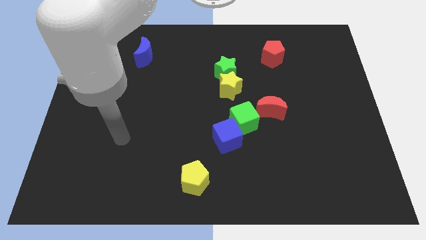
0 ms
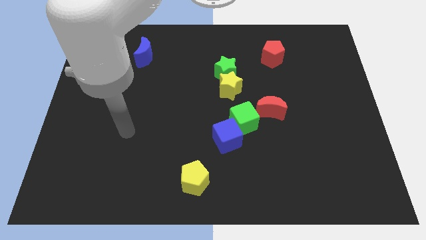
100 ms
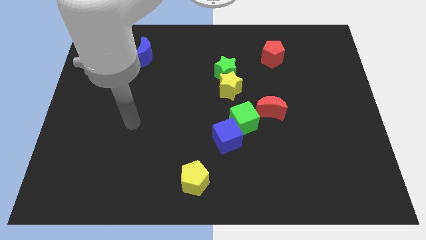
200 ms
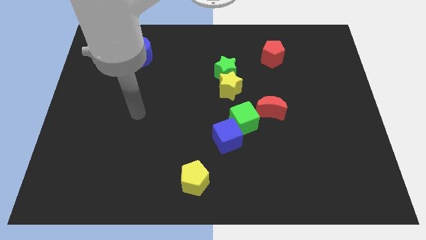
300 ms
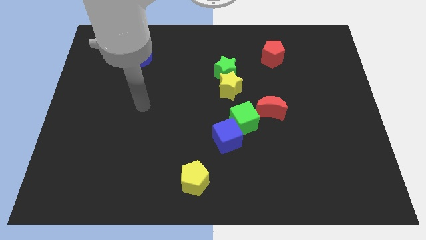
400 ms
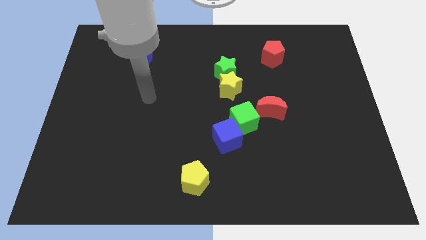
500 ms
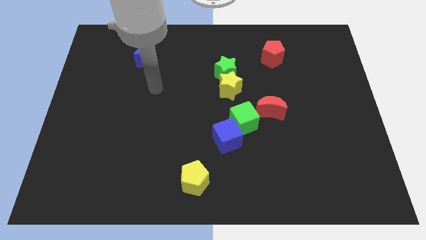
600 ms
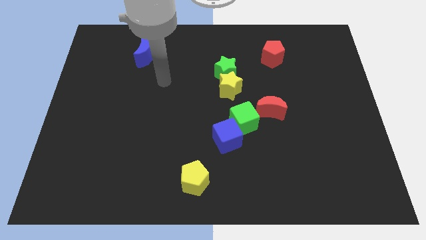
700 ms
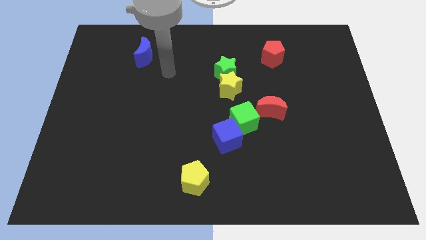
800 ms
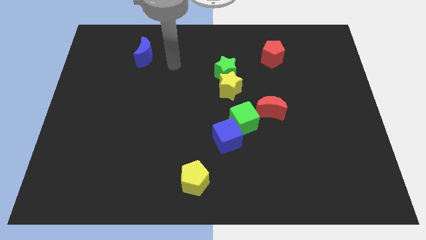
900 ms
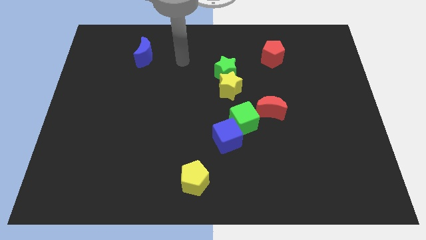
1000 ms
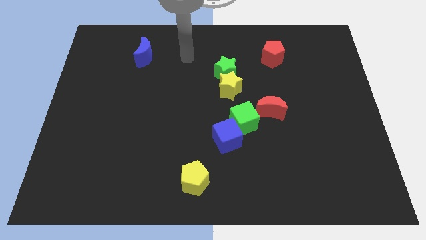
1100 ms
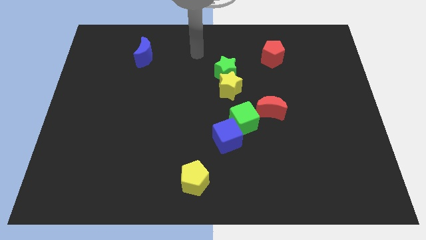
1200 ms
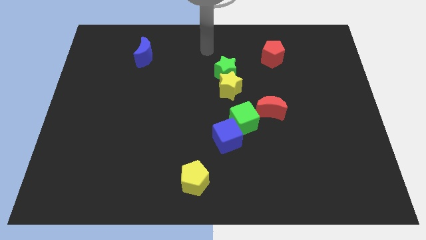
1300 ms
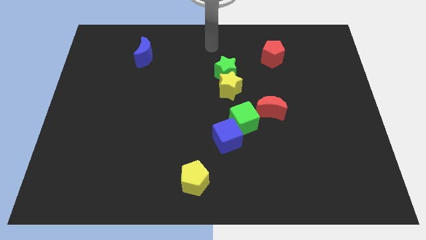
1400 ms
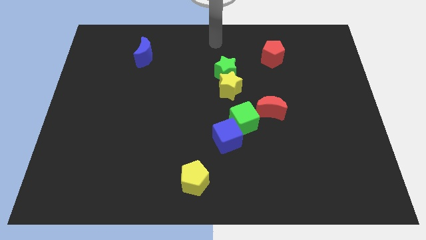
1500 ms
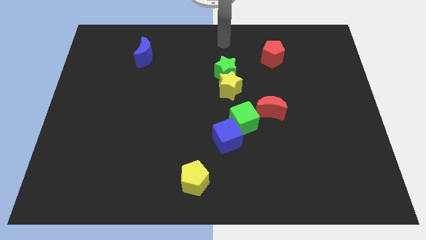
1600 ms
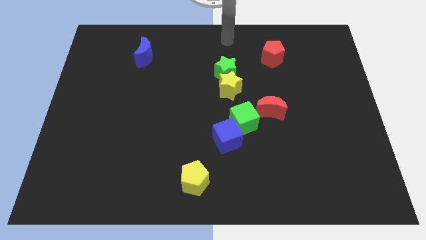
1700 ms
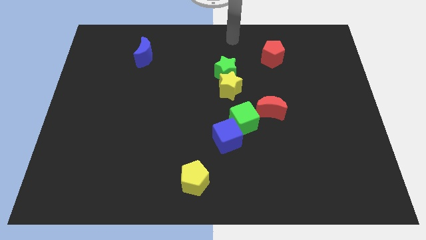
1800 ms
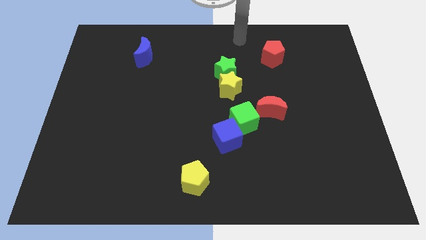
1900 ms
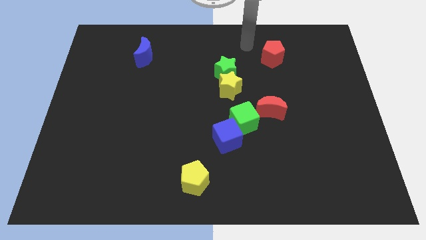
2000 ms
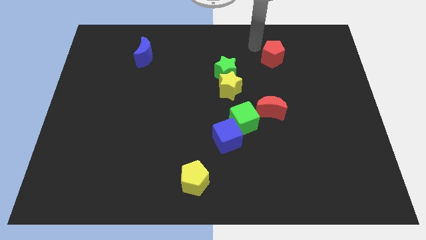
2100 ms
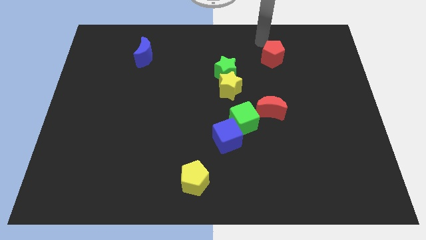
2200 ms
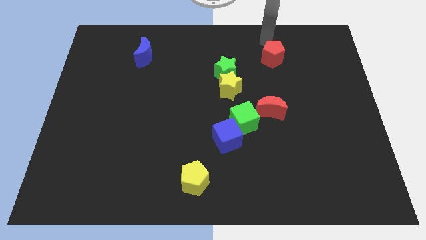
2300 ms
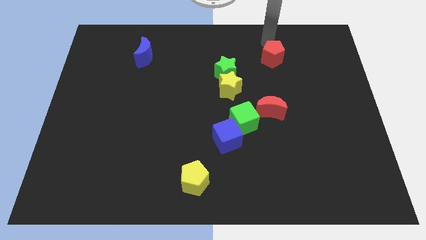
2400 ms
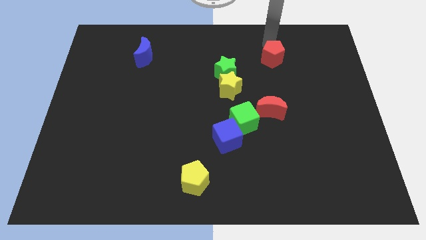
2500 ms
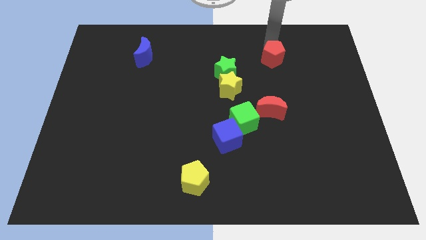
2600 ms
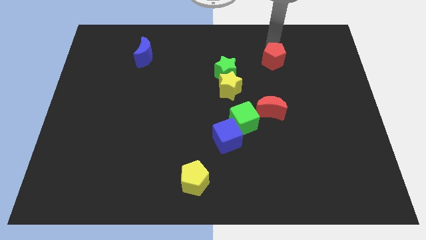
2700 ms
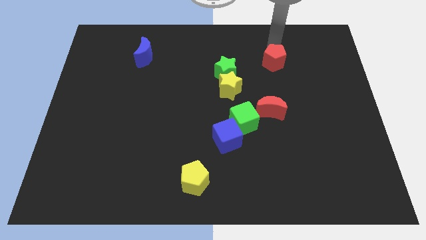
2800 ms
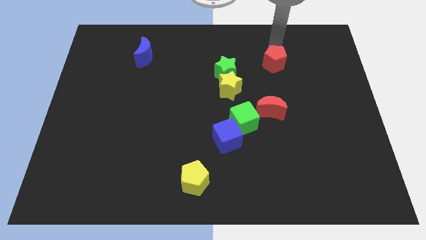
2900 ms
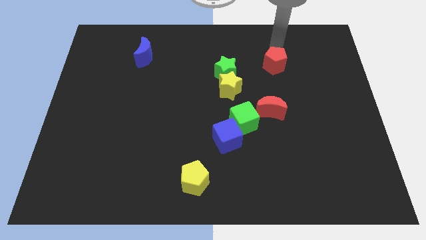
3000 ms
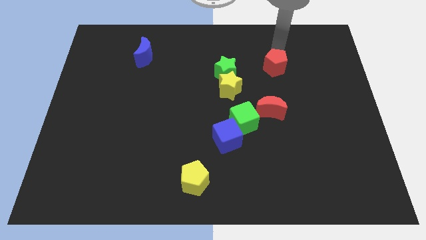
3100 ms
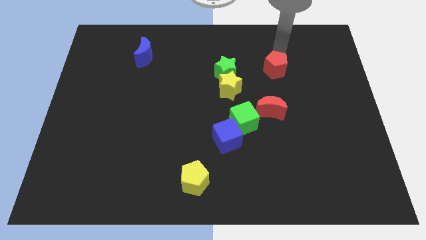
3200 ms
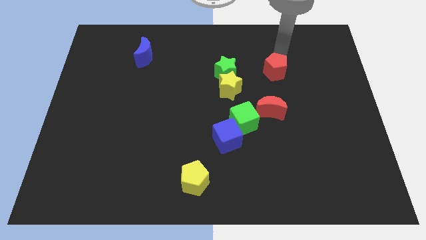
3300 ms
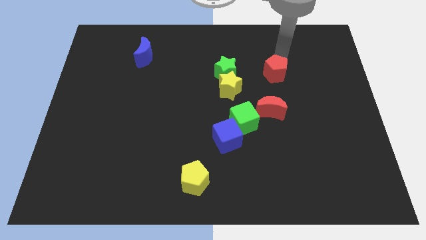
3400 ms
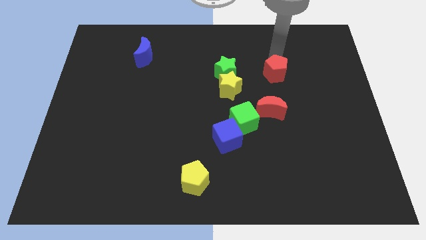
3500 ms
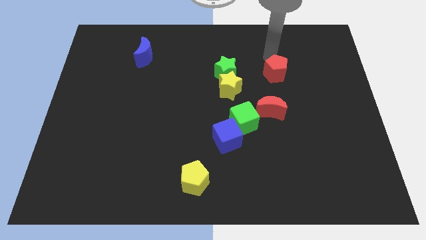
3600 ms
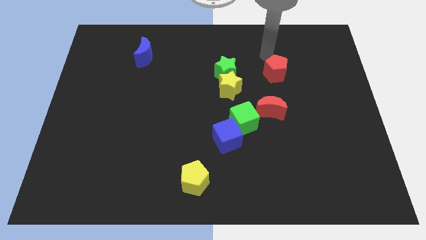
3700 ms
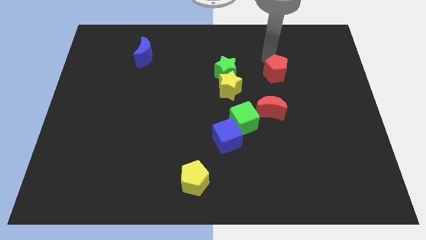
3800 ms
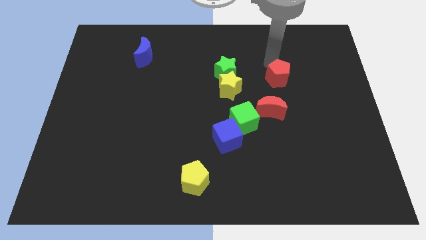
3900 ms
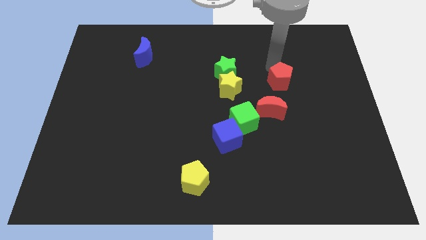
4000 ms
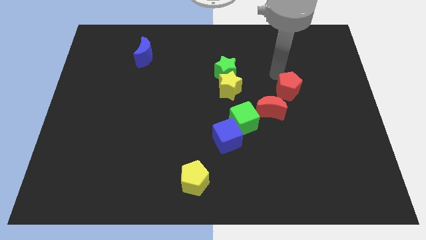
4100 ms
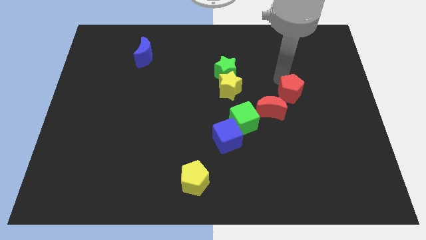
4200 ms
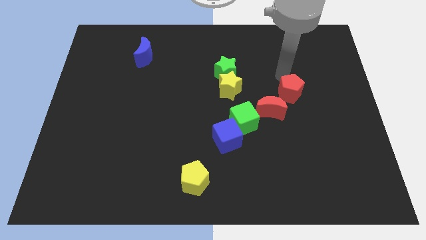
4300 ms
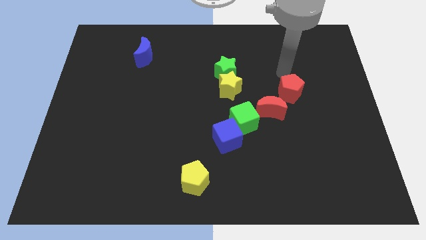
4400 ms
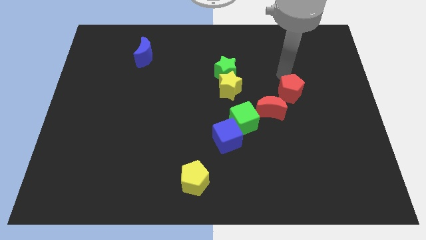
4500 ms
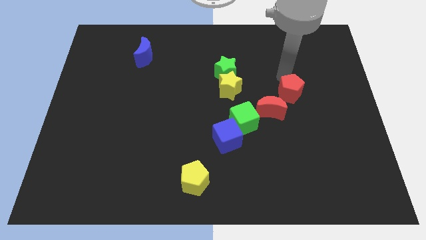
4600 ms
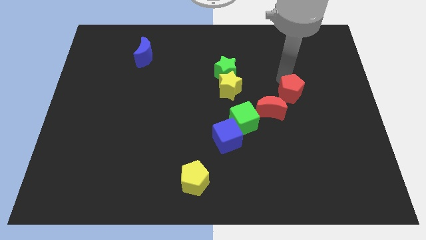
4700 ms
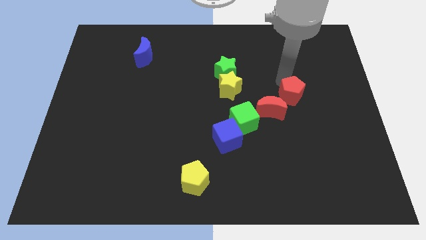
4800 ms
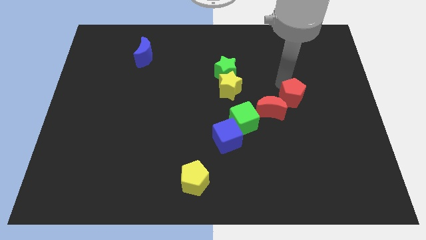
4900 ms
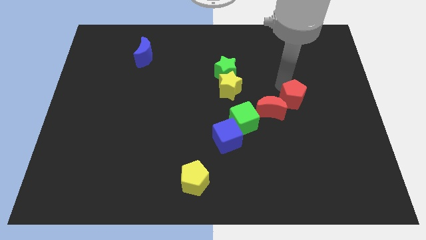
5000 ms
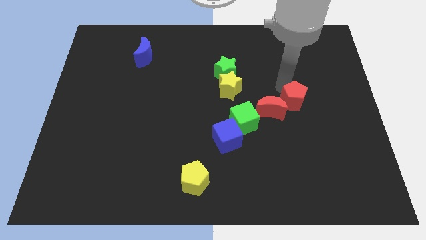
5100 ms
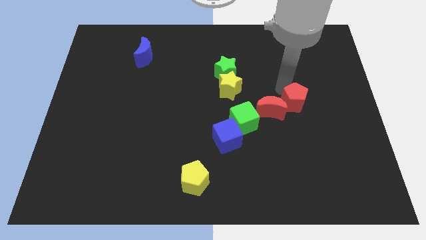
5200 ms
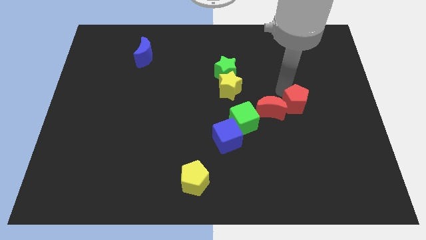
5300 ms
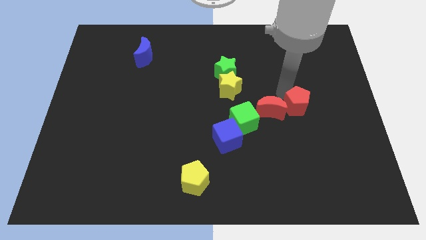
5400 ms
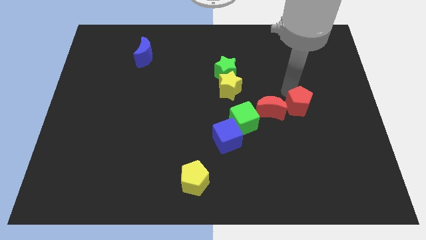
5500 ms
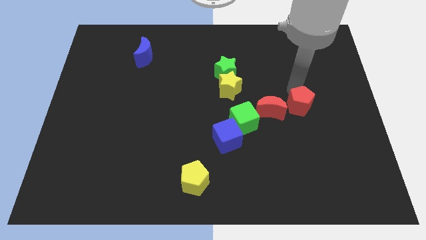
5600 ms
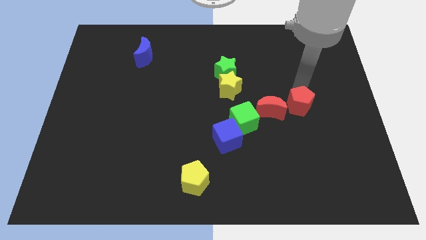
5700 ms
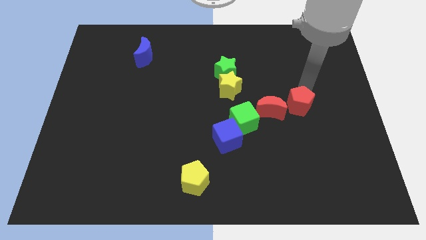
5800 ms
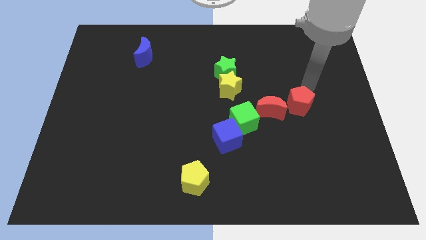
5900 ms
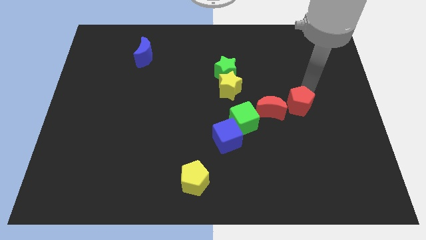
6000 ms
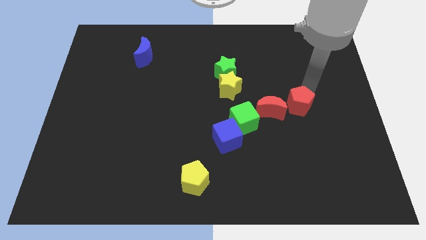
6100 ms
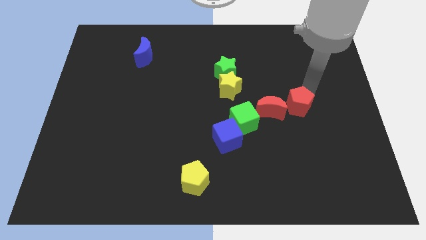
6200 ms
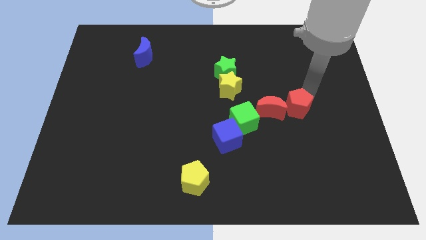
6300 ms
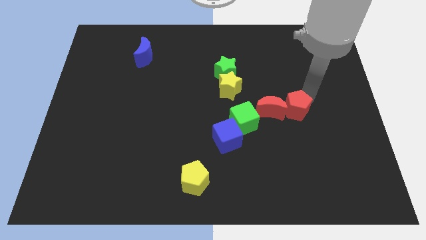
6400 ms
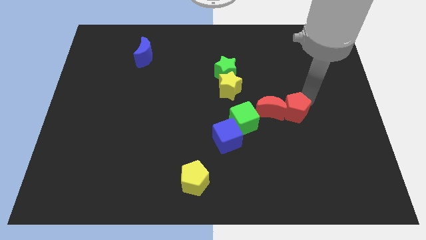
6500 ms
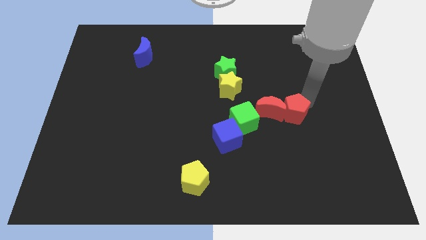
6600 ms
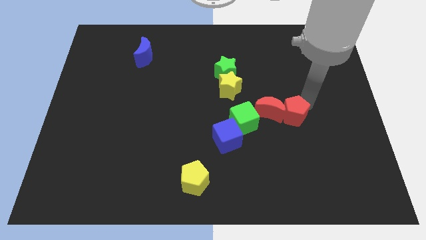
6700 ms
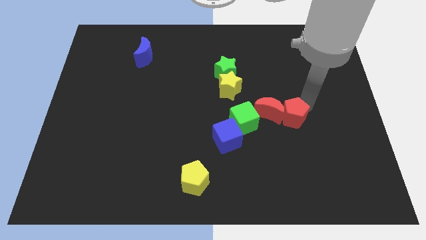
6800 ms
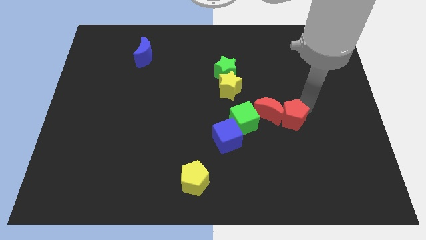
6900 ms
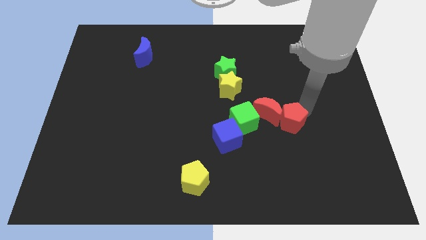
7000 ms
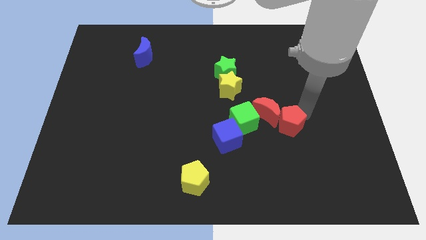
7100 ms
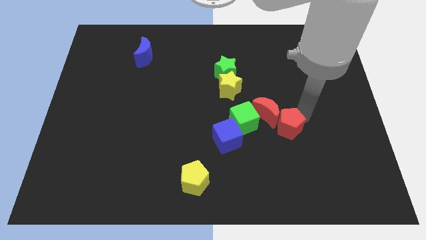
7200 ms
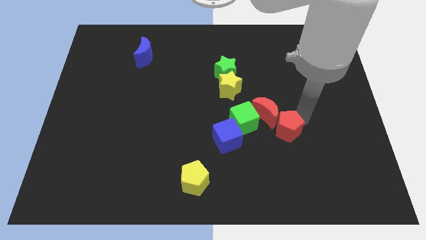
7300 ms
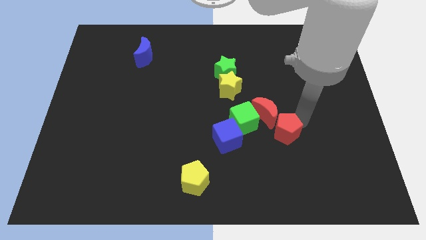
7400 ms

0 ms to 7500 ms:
push the red pentagon to the bottom right side of the green cube
